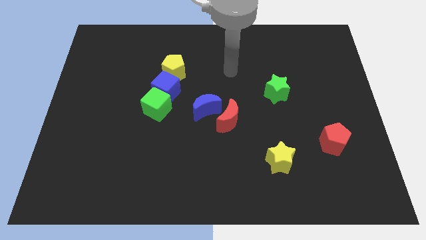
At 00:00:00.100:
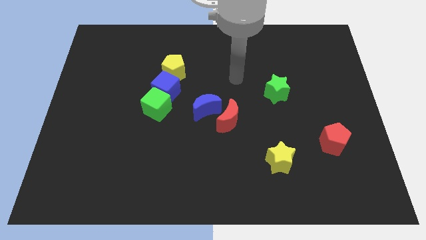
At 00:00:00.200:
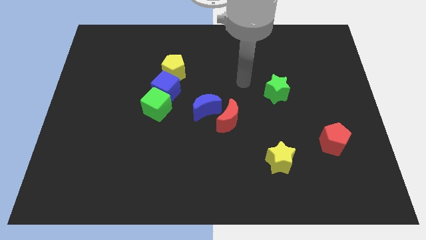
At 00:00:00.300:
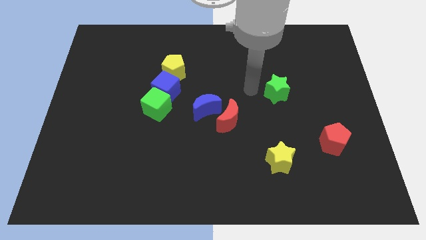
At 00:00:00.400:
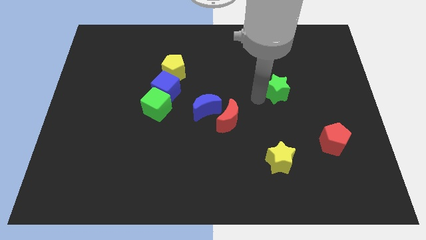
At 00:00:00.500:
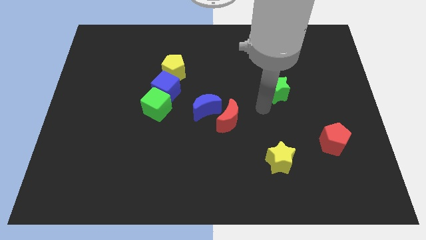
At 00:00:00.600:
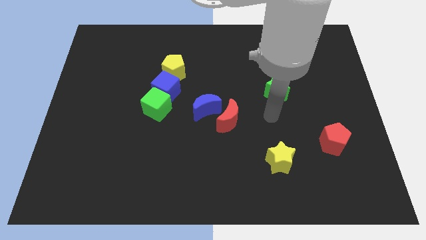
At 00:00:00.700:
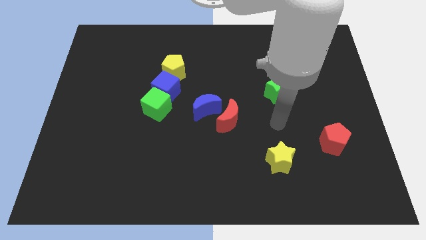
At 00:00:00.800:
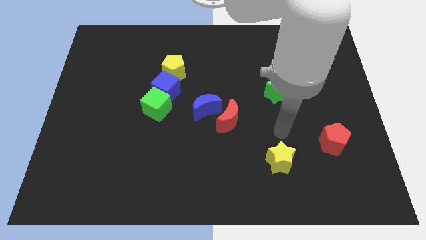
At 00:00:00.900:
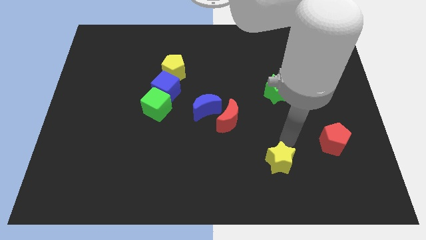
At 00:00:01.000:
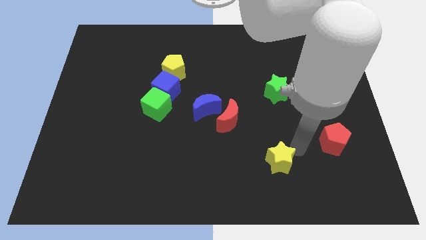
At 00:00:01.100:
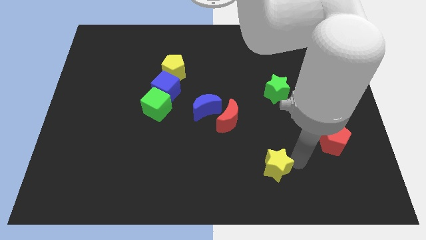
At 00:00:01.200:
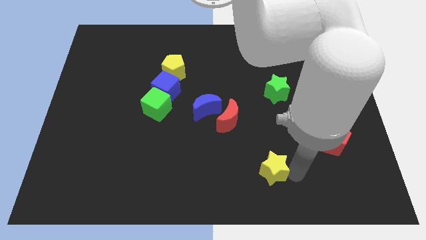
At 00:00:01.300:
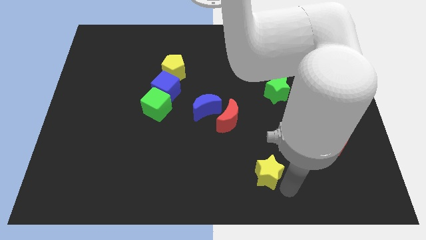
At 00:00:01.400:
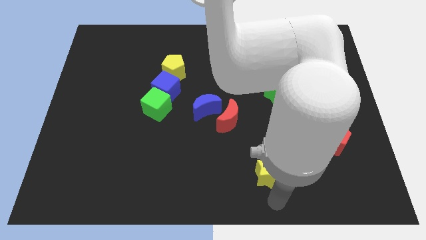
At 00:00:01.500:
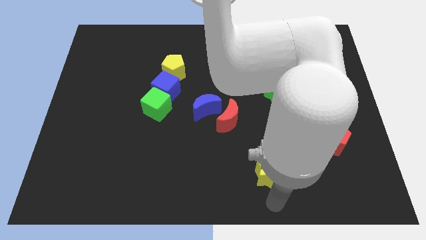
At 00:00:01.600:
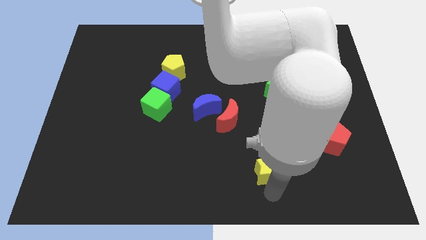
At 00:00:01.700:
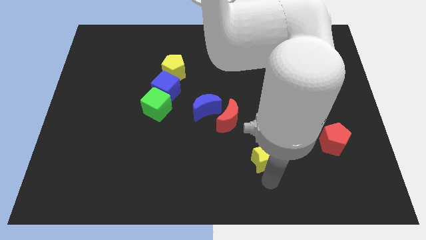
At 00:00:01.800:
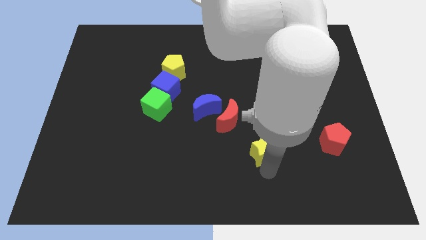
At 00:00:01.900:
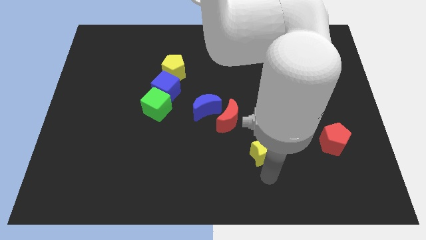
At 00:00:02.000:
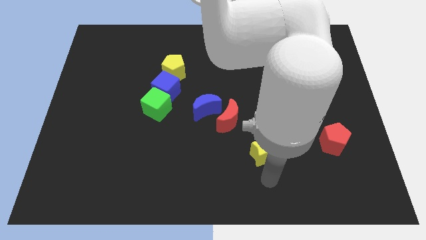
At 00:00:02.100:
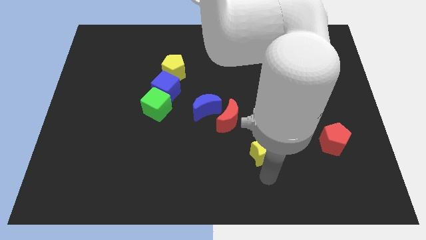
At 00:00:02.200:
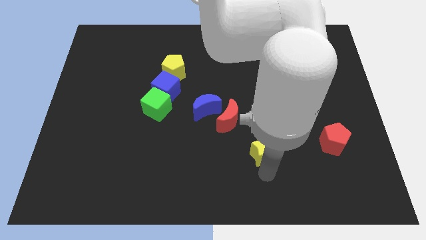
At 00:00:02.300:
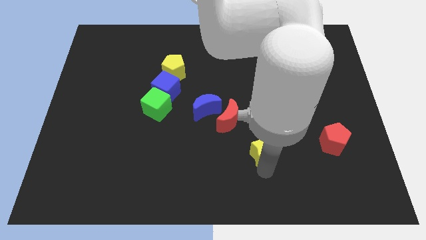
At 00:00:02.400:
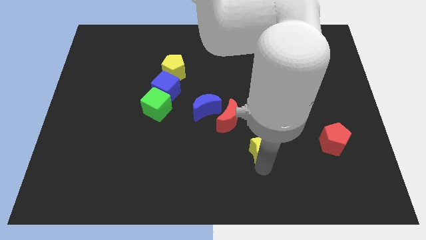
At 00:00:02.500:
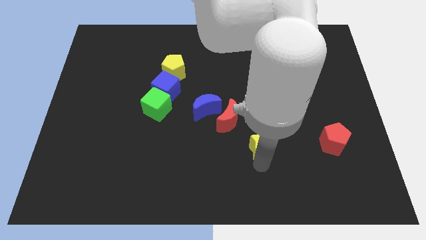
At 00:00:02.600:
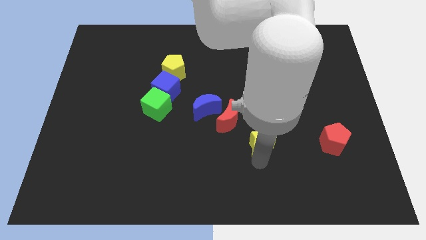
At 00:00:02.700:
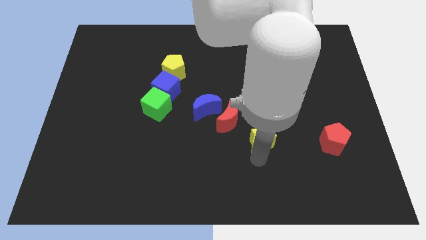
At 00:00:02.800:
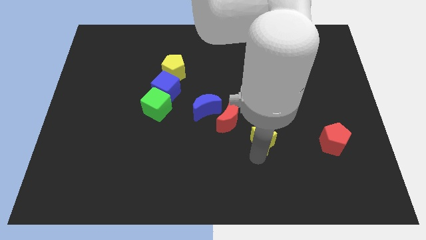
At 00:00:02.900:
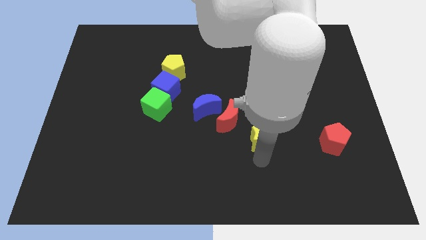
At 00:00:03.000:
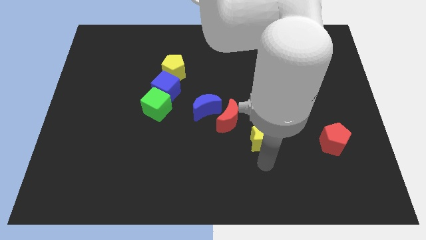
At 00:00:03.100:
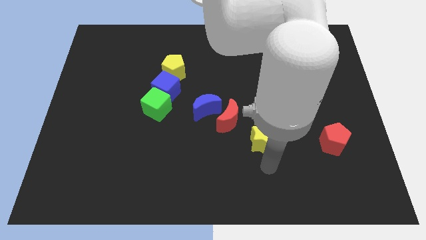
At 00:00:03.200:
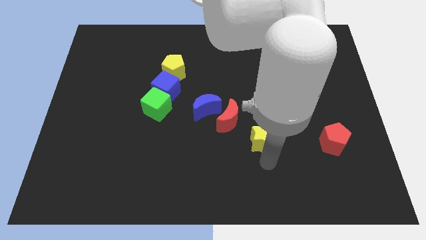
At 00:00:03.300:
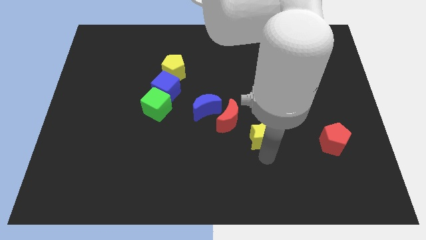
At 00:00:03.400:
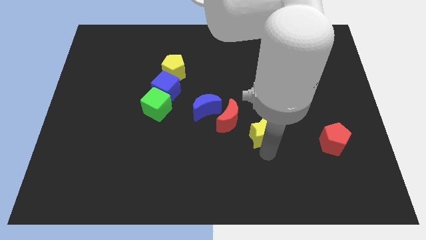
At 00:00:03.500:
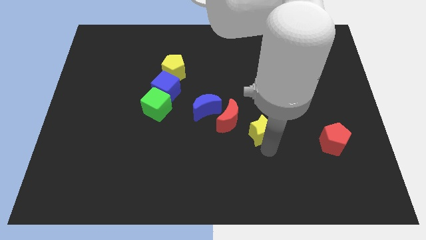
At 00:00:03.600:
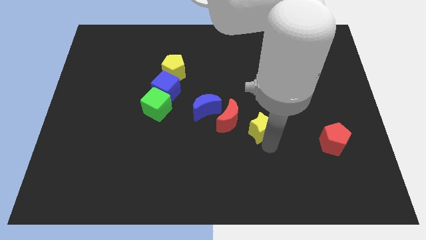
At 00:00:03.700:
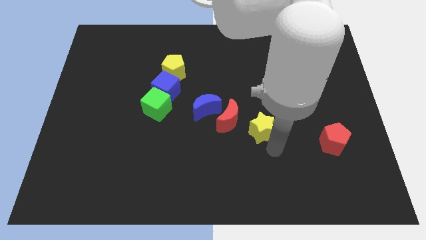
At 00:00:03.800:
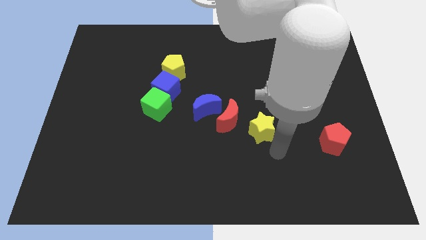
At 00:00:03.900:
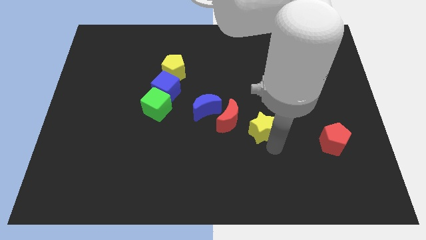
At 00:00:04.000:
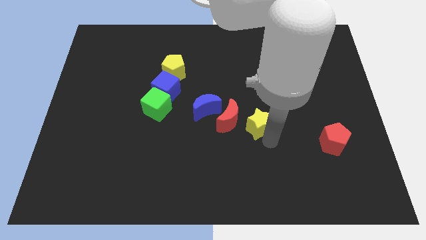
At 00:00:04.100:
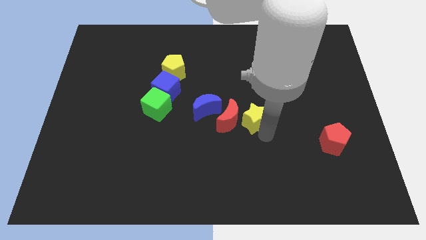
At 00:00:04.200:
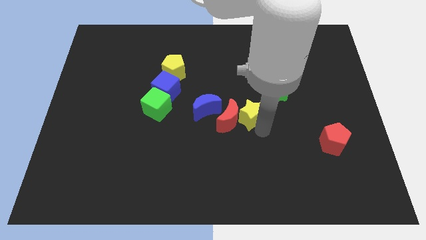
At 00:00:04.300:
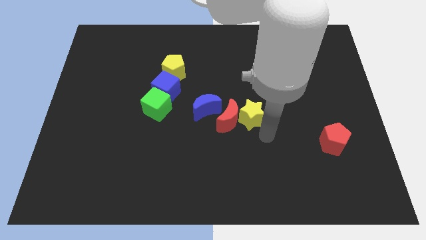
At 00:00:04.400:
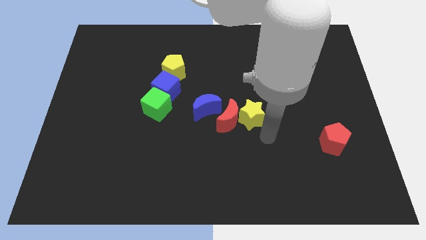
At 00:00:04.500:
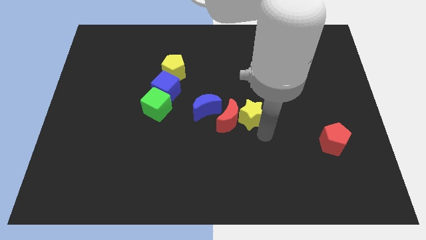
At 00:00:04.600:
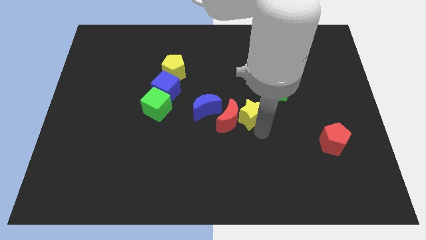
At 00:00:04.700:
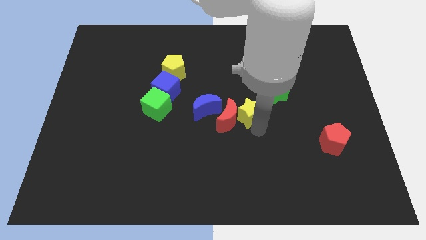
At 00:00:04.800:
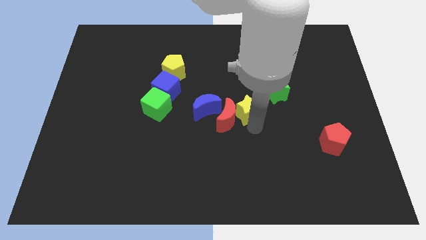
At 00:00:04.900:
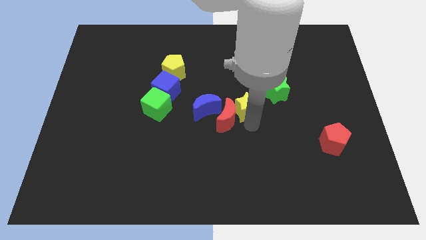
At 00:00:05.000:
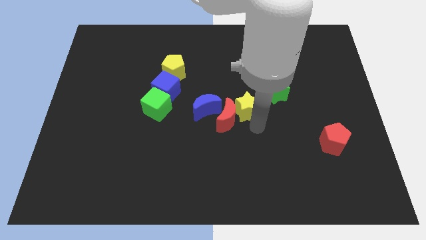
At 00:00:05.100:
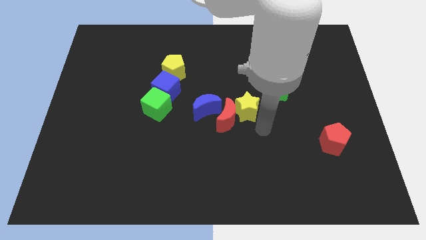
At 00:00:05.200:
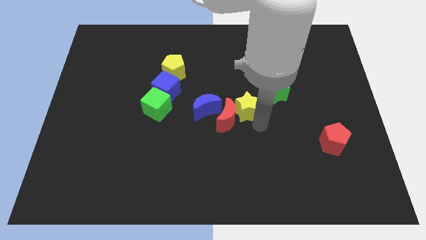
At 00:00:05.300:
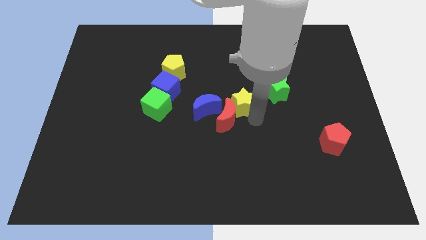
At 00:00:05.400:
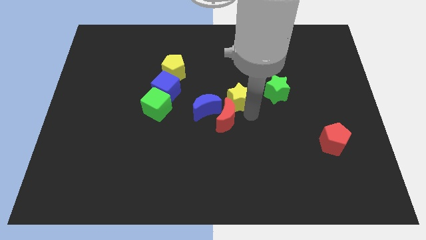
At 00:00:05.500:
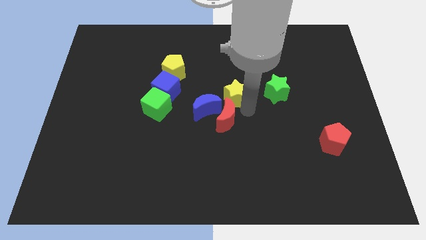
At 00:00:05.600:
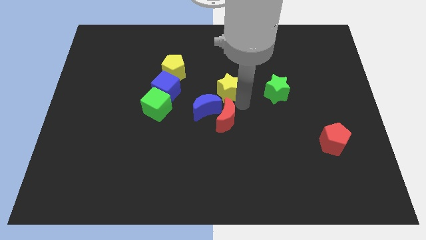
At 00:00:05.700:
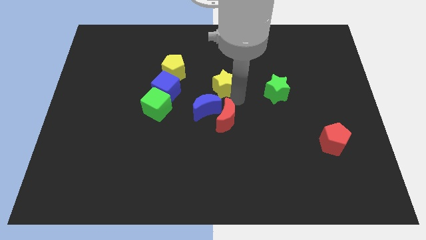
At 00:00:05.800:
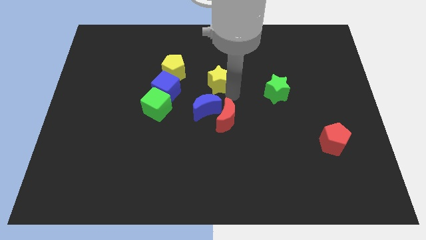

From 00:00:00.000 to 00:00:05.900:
move the yellow star to the right of the yellow pentagon
